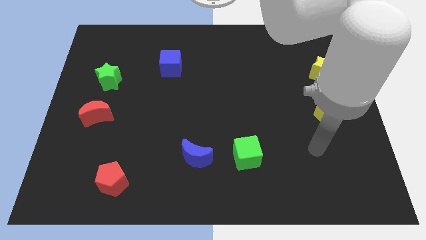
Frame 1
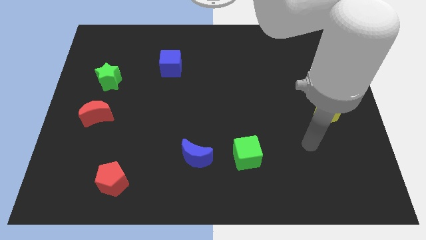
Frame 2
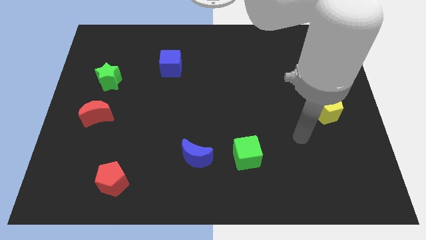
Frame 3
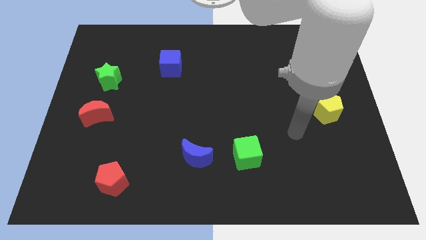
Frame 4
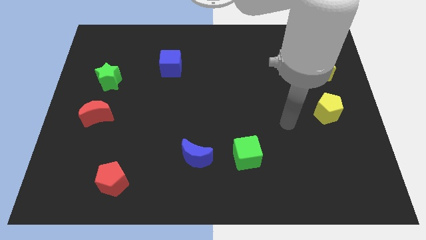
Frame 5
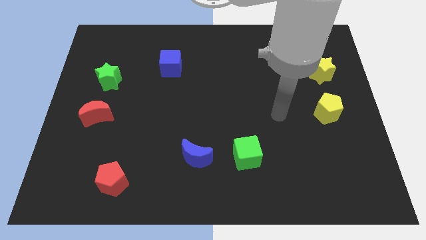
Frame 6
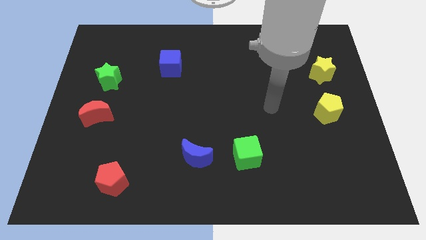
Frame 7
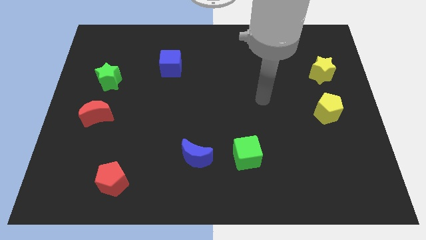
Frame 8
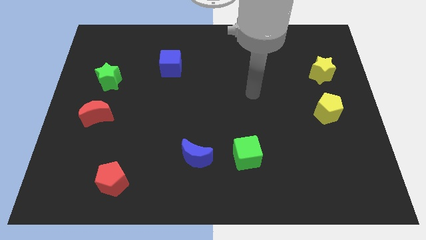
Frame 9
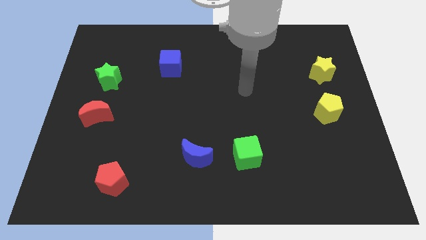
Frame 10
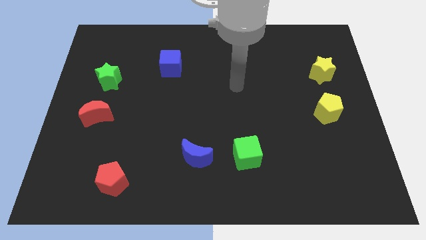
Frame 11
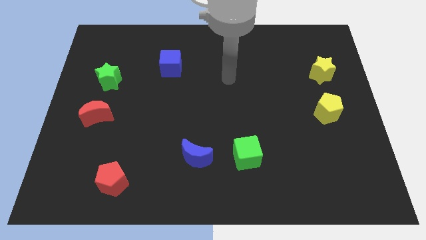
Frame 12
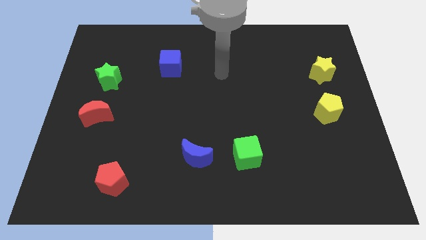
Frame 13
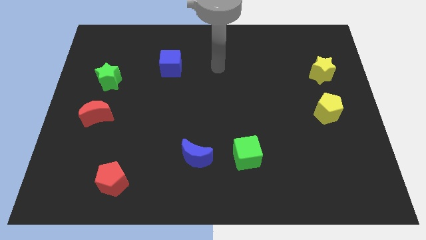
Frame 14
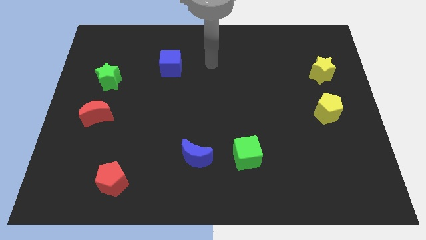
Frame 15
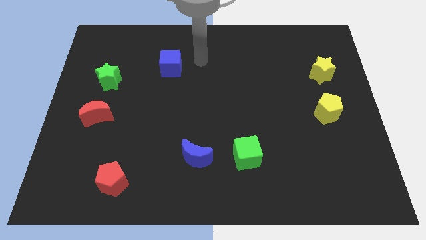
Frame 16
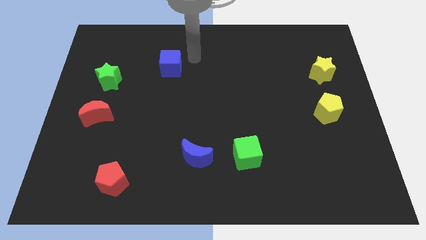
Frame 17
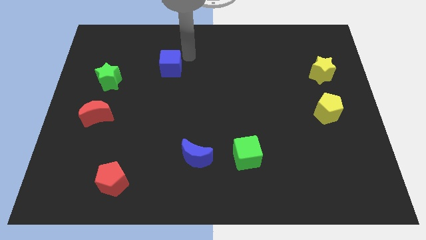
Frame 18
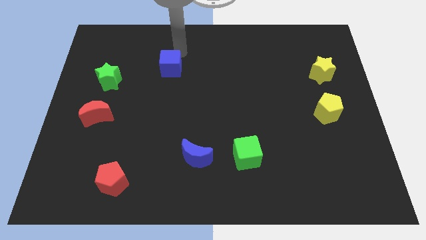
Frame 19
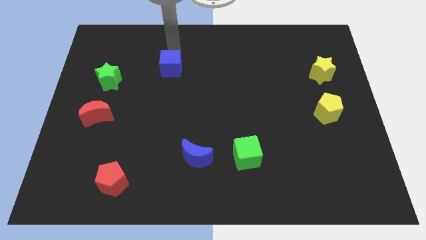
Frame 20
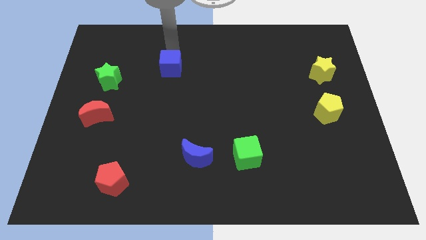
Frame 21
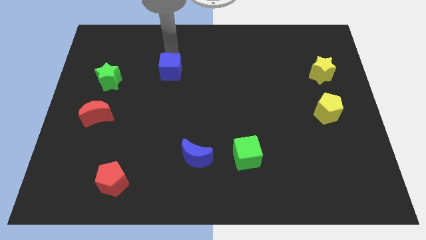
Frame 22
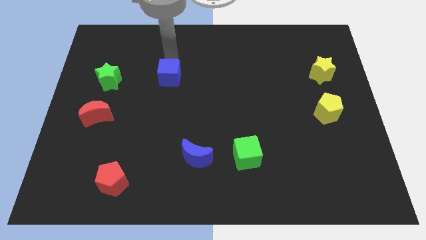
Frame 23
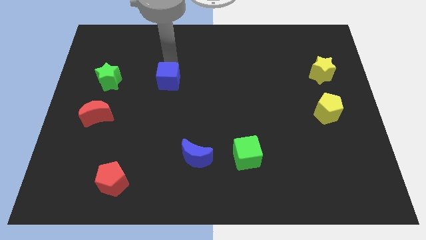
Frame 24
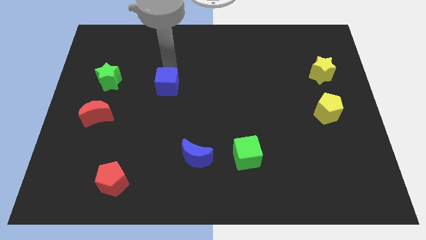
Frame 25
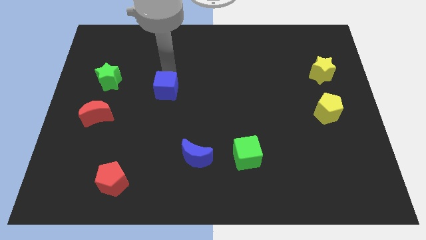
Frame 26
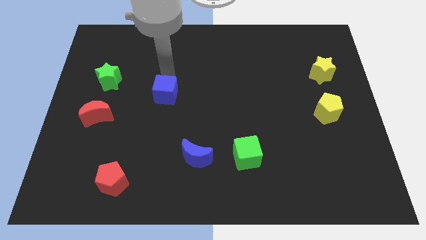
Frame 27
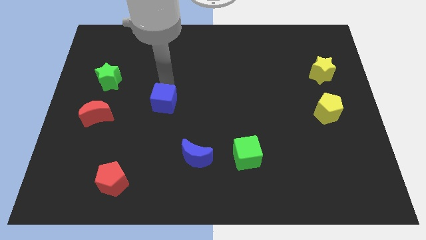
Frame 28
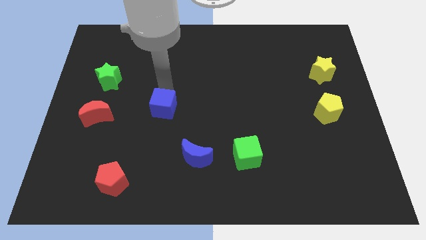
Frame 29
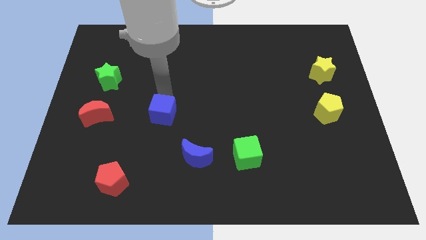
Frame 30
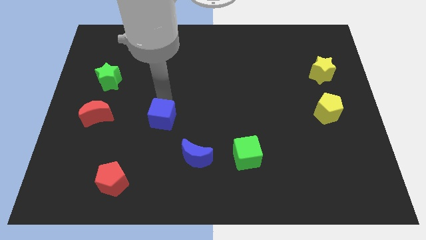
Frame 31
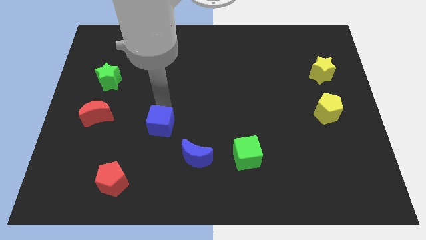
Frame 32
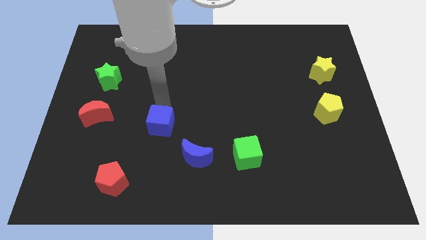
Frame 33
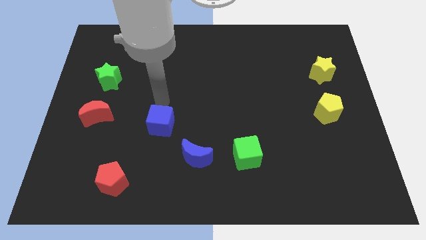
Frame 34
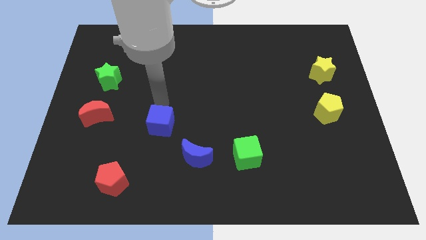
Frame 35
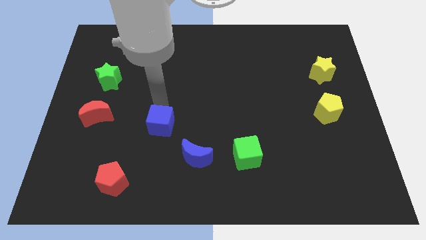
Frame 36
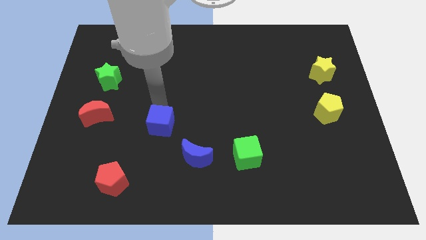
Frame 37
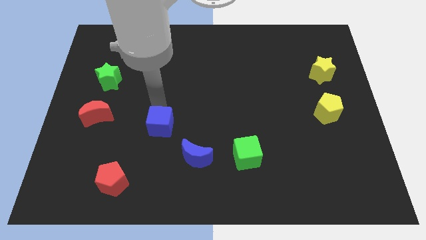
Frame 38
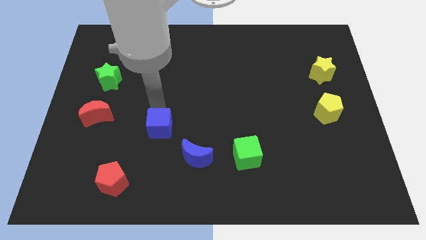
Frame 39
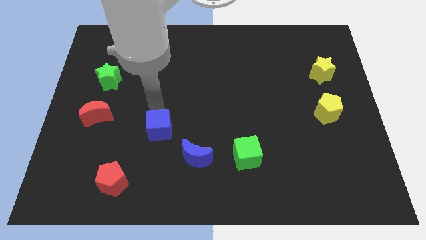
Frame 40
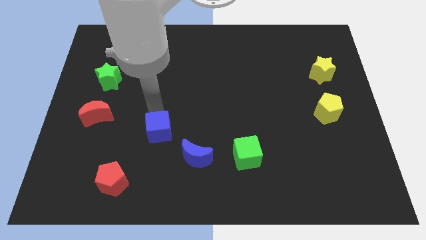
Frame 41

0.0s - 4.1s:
push the blue cube down

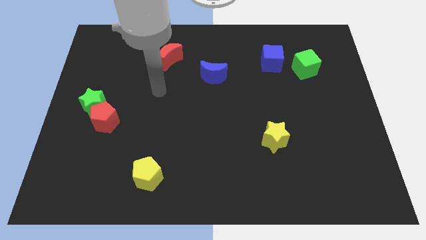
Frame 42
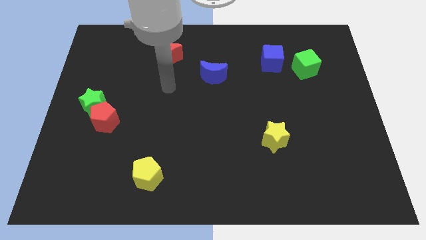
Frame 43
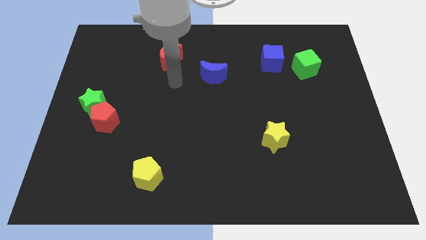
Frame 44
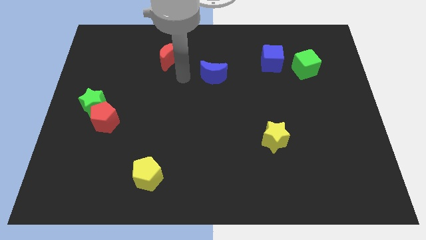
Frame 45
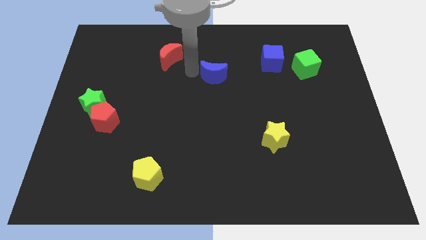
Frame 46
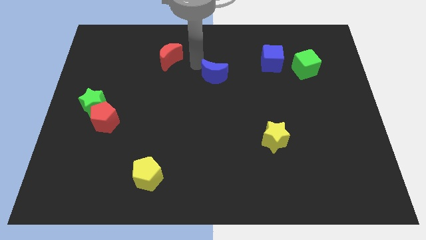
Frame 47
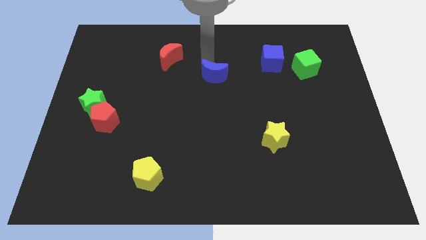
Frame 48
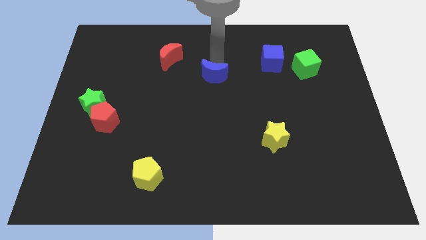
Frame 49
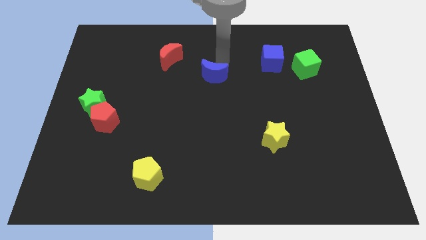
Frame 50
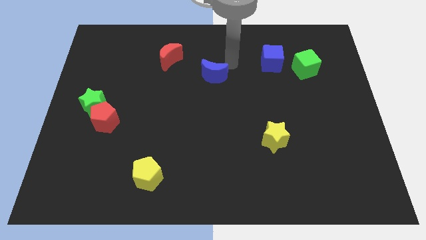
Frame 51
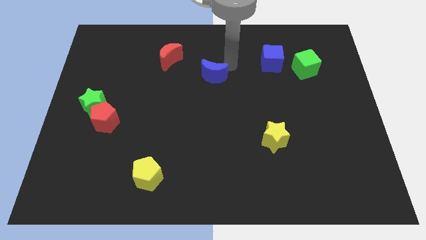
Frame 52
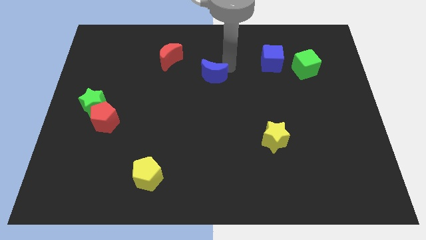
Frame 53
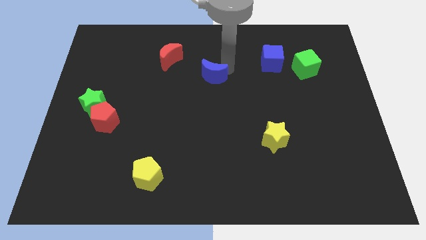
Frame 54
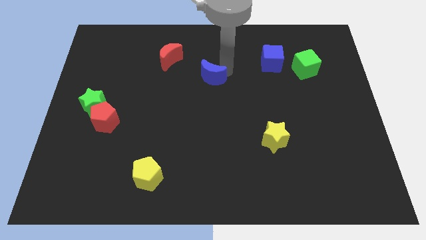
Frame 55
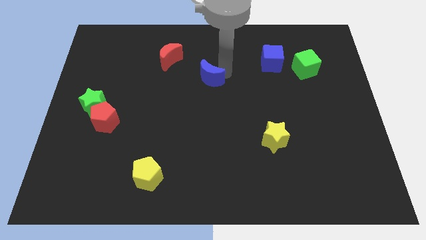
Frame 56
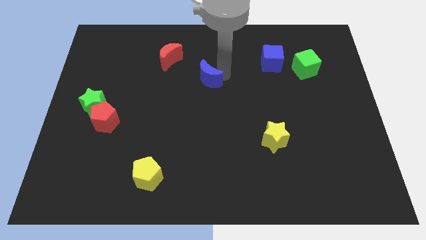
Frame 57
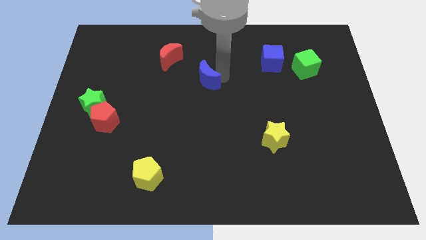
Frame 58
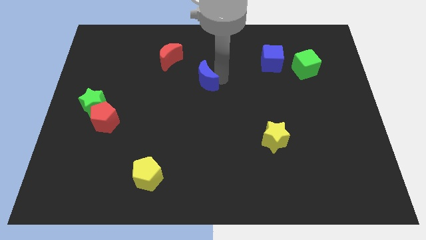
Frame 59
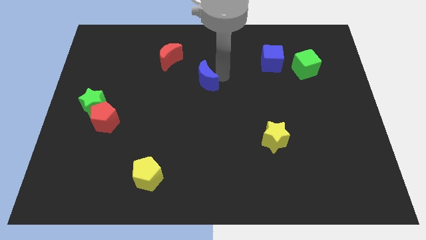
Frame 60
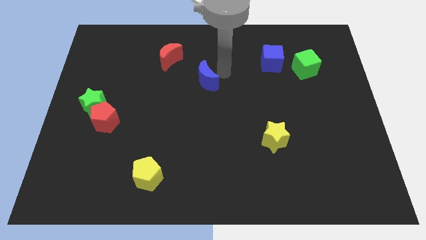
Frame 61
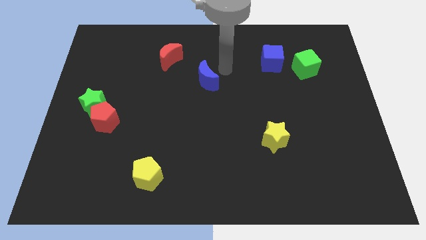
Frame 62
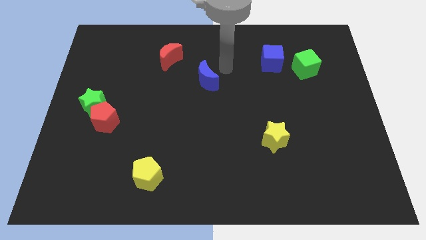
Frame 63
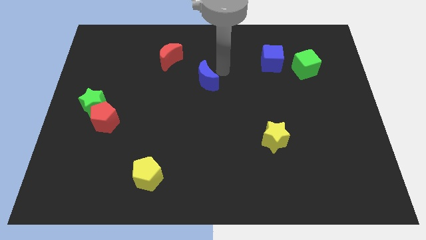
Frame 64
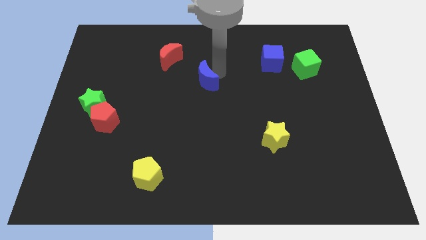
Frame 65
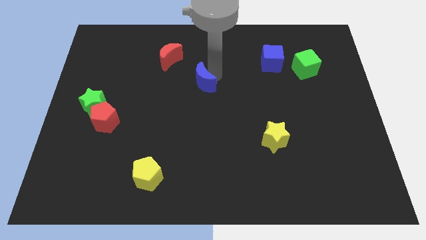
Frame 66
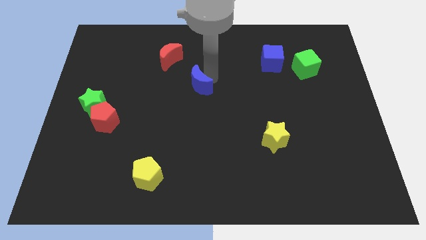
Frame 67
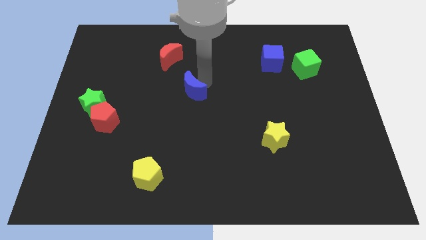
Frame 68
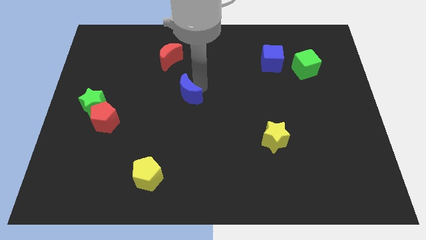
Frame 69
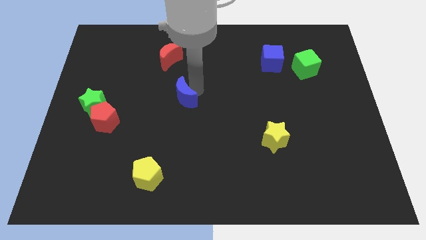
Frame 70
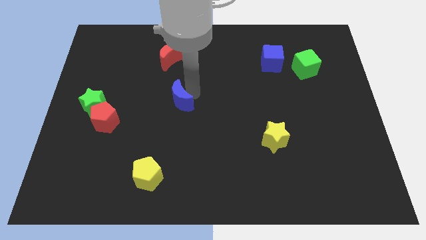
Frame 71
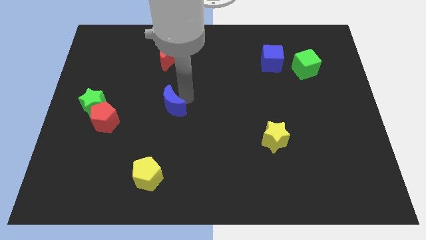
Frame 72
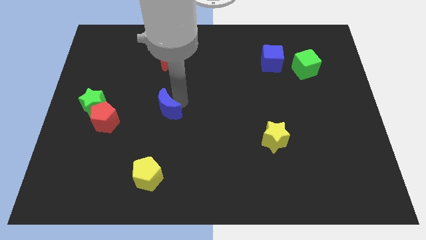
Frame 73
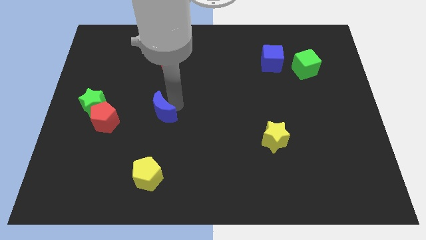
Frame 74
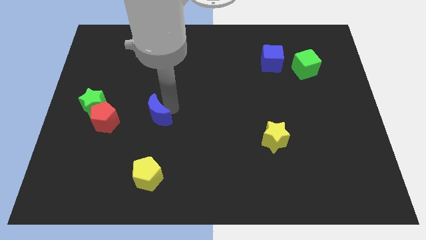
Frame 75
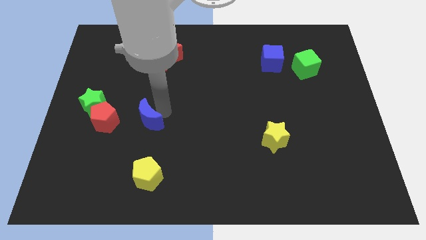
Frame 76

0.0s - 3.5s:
push the blue moon downwards and then to the left

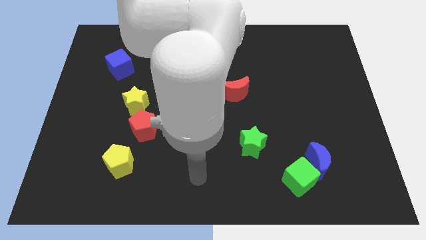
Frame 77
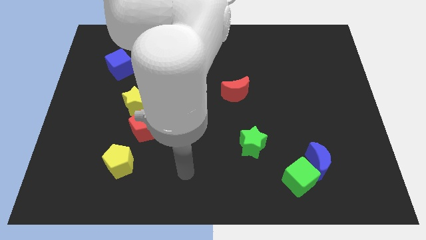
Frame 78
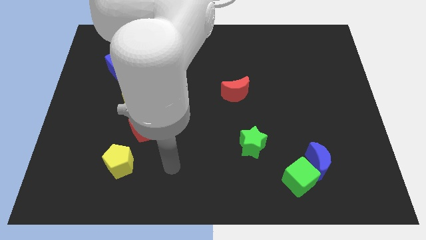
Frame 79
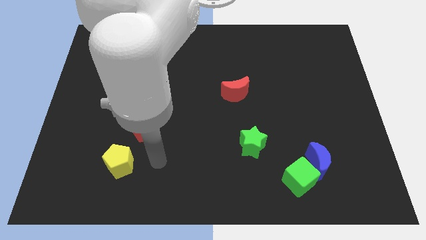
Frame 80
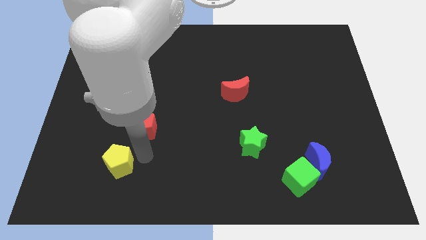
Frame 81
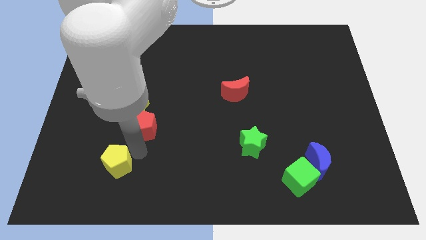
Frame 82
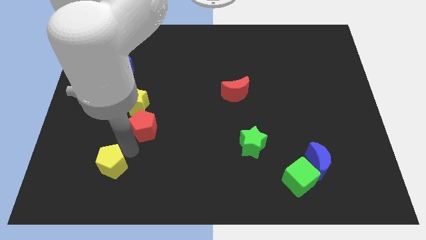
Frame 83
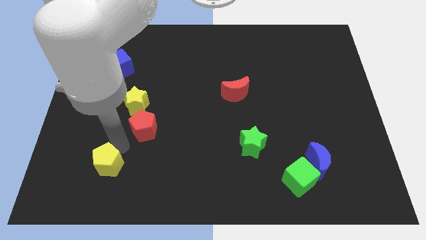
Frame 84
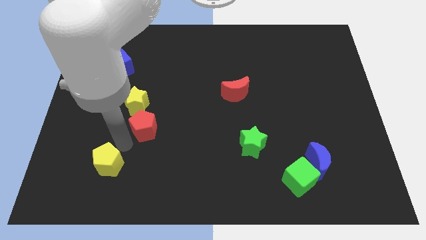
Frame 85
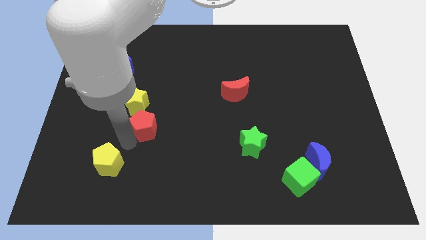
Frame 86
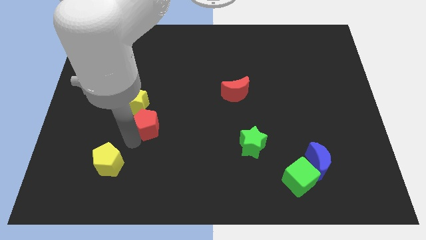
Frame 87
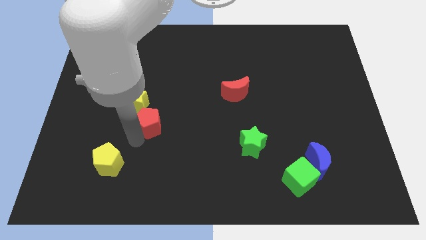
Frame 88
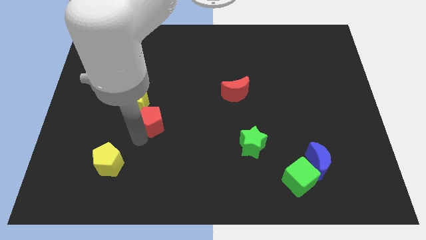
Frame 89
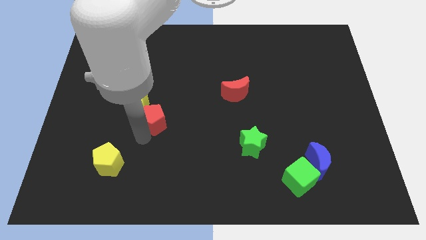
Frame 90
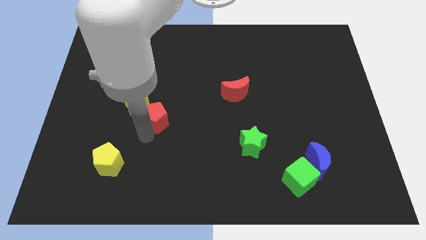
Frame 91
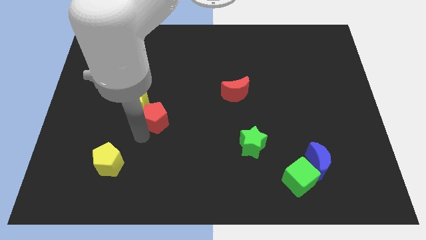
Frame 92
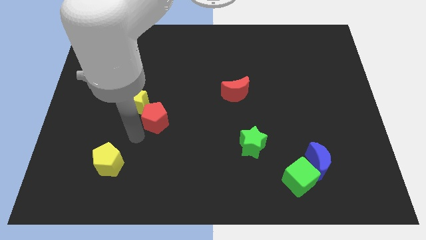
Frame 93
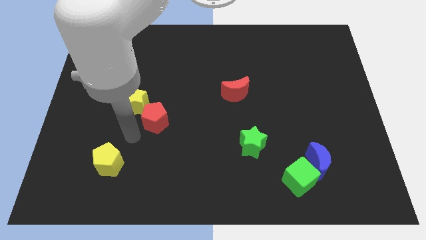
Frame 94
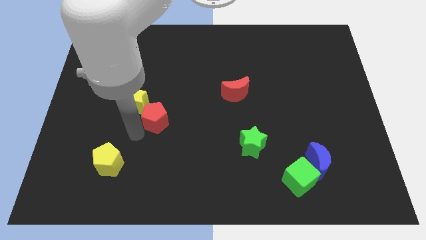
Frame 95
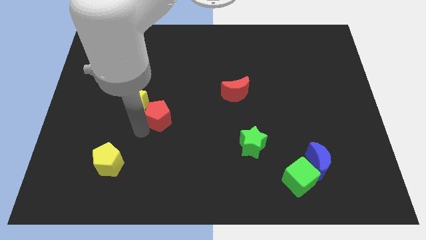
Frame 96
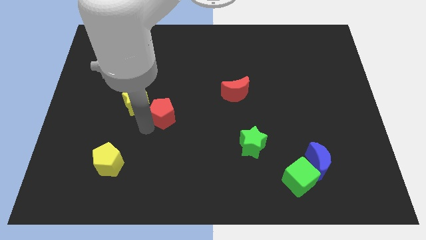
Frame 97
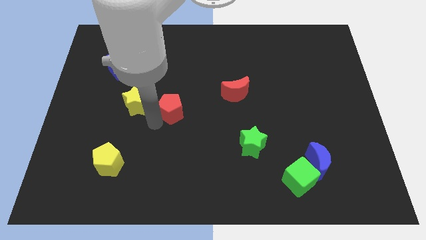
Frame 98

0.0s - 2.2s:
slightly push the red pentagon diagonally up and to the right
